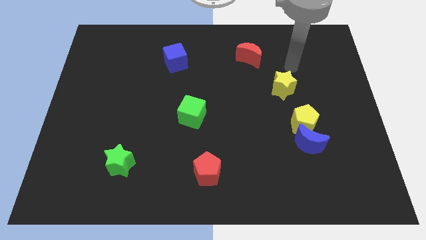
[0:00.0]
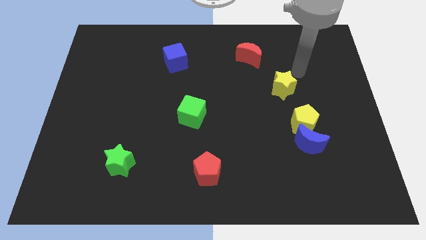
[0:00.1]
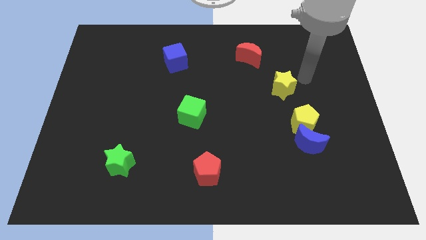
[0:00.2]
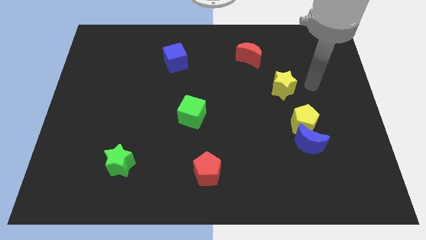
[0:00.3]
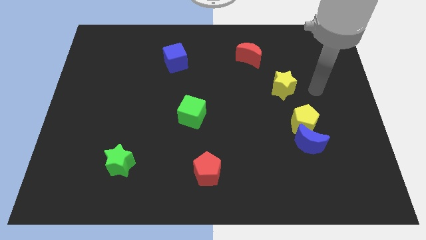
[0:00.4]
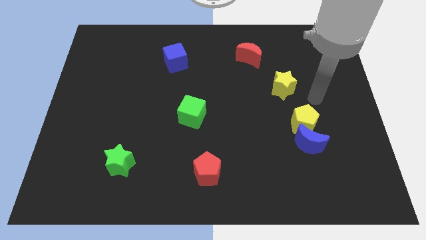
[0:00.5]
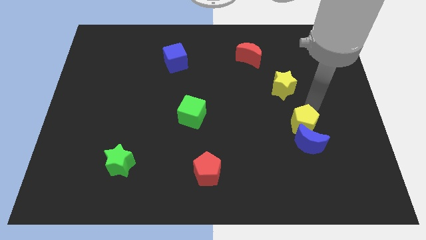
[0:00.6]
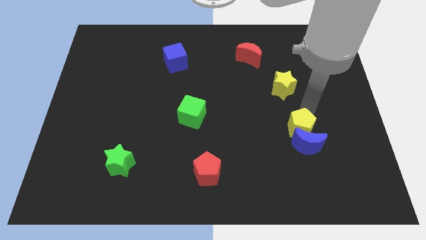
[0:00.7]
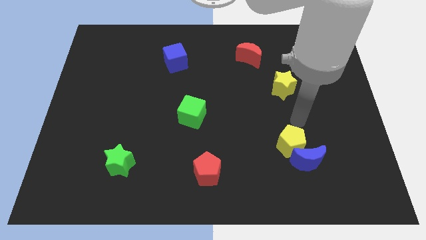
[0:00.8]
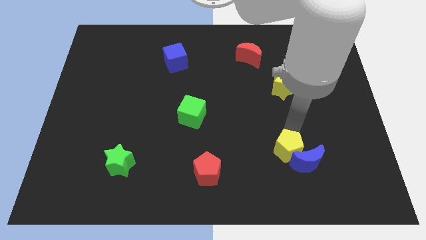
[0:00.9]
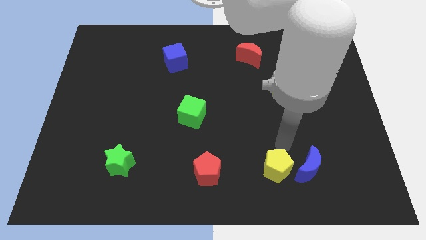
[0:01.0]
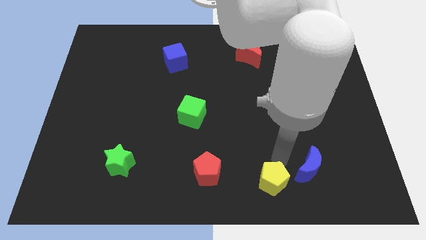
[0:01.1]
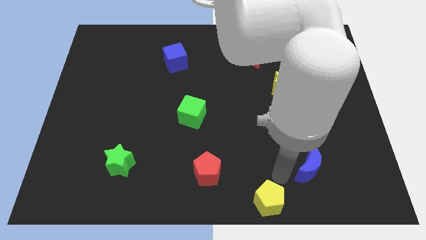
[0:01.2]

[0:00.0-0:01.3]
move the blue moon away from the yellow pentagon

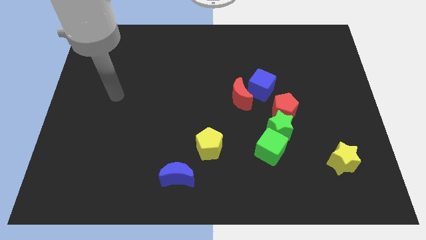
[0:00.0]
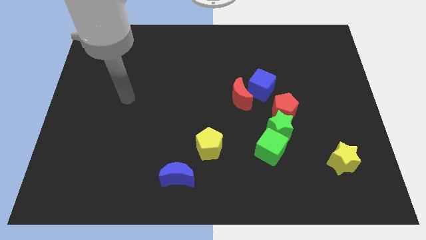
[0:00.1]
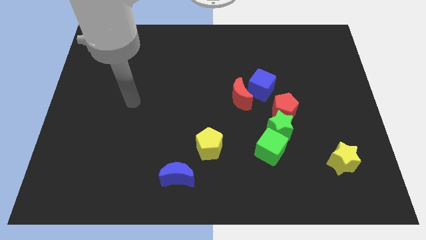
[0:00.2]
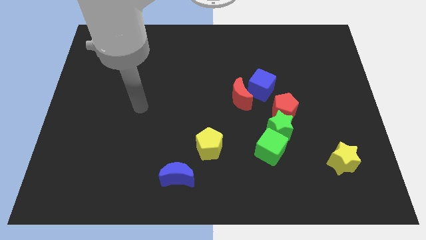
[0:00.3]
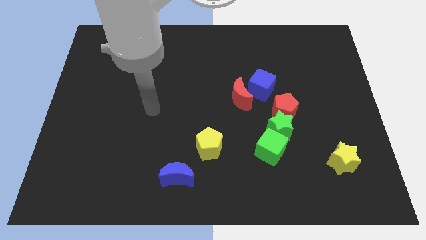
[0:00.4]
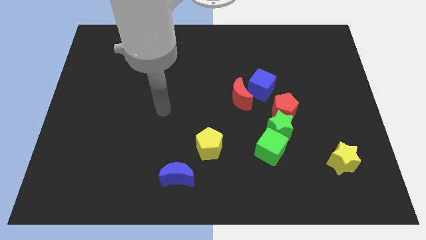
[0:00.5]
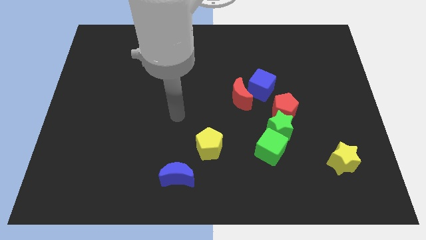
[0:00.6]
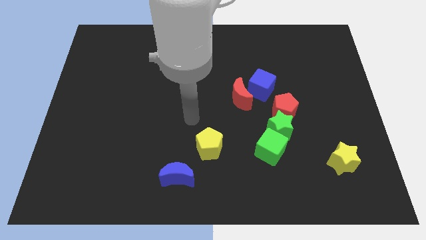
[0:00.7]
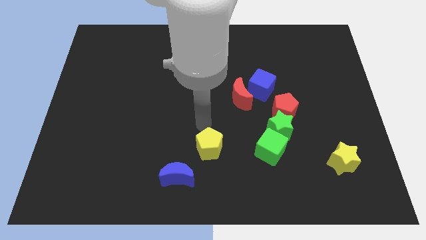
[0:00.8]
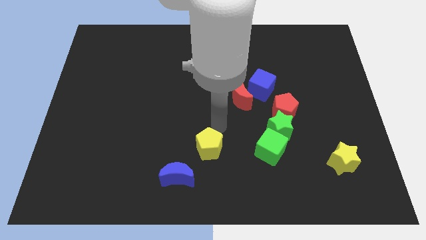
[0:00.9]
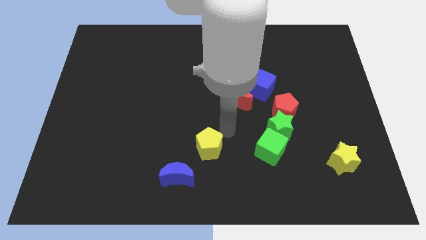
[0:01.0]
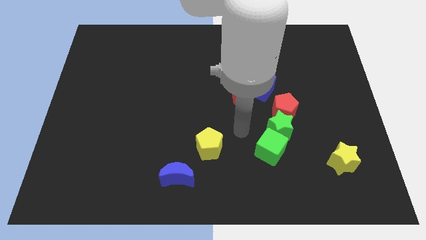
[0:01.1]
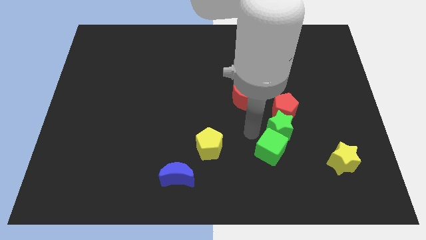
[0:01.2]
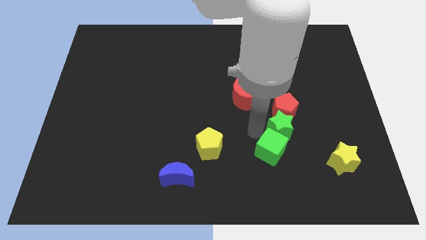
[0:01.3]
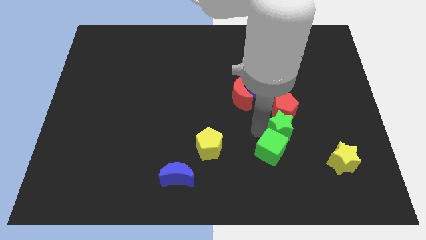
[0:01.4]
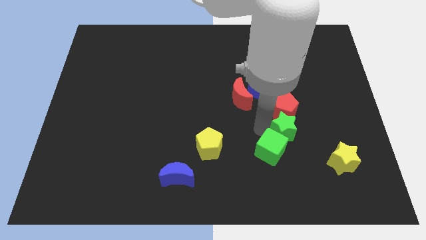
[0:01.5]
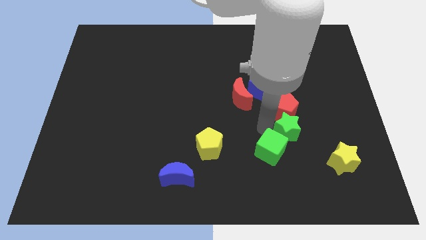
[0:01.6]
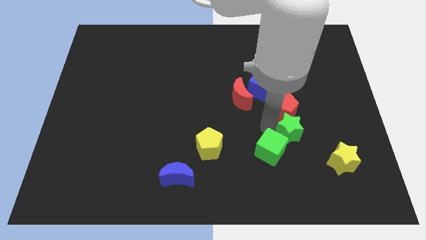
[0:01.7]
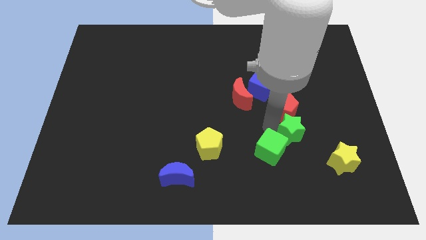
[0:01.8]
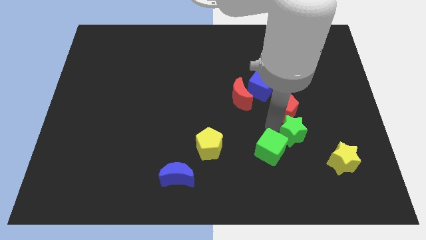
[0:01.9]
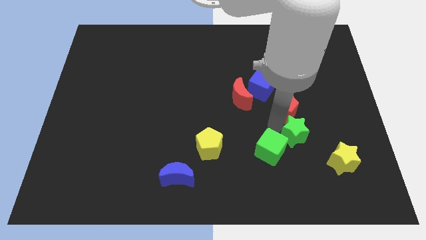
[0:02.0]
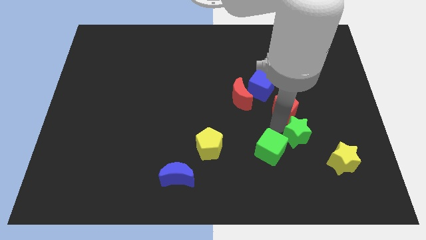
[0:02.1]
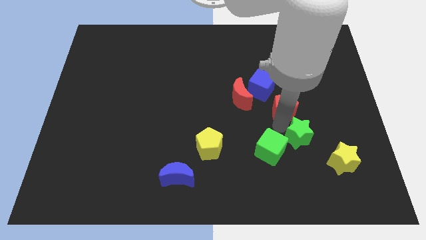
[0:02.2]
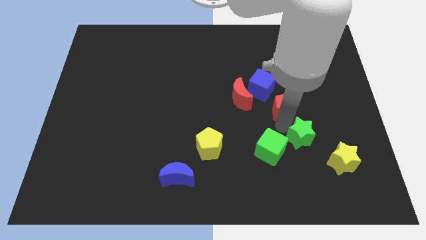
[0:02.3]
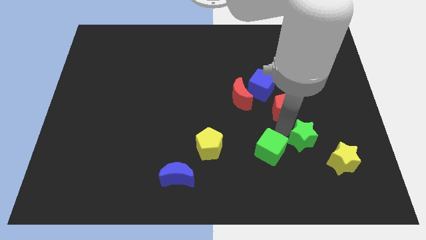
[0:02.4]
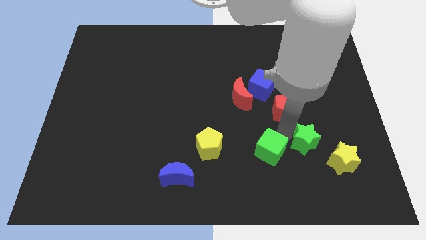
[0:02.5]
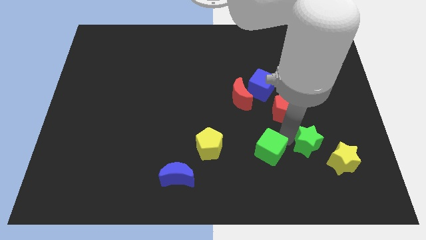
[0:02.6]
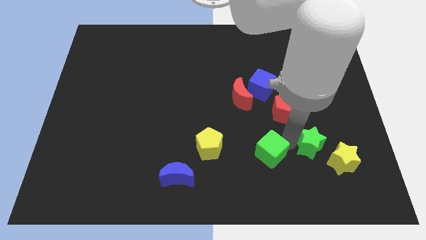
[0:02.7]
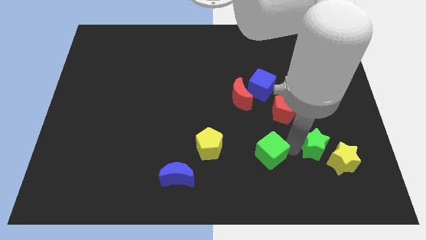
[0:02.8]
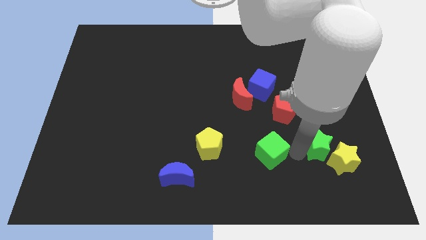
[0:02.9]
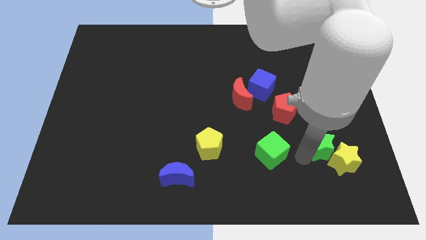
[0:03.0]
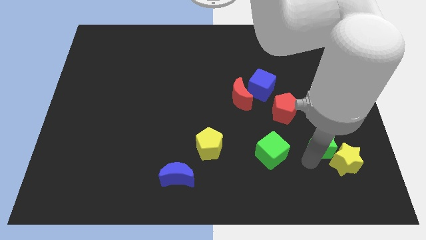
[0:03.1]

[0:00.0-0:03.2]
move the green star away from the red pentagon and green cube

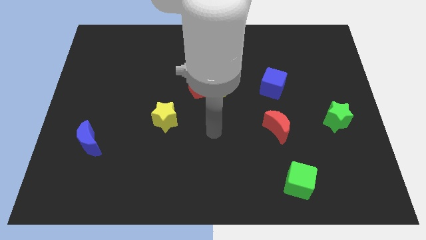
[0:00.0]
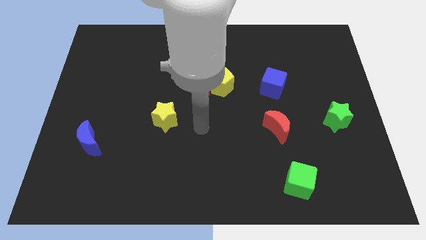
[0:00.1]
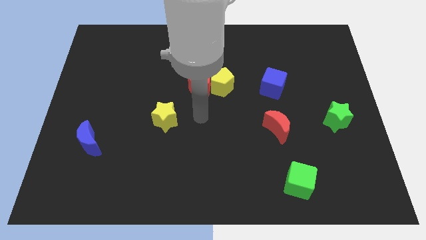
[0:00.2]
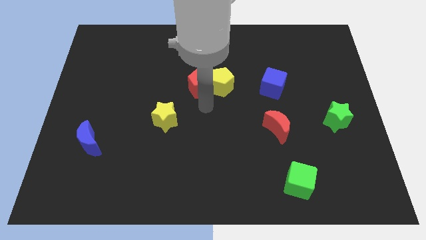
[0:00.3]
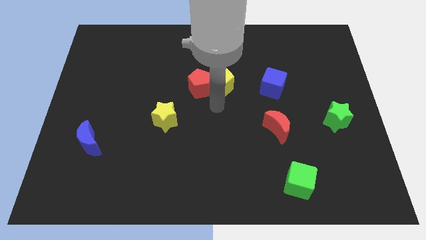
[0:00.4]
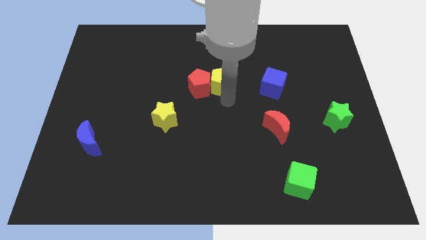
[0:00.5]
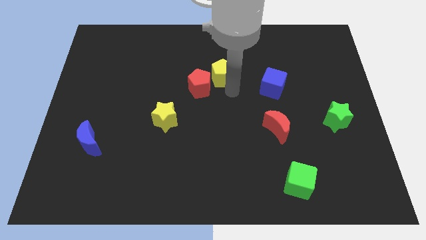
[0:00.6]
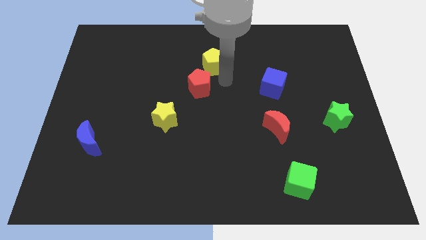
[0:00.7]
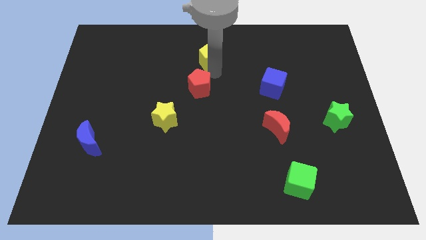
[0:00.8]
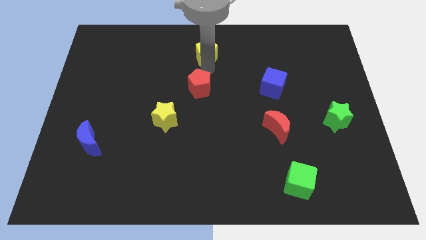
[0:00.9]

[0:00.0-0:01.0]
separate the red pentagon from the yellow pentagon

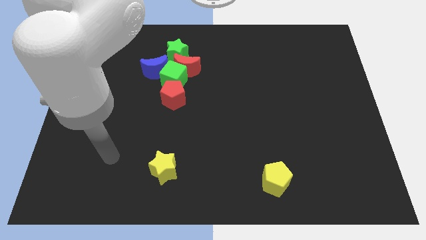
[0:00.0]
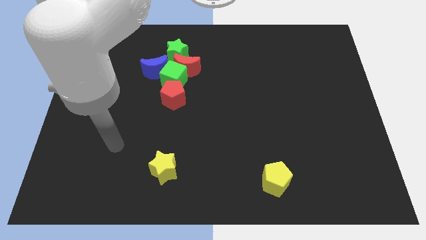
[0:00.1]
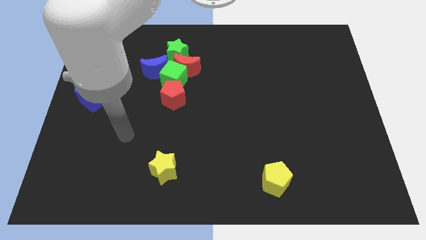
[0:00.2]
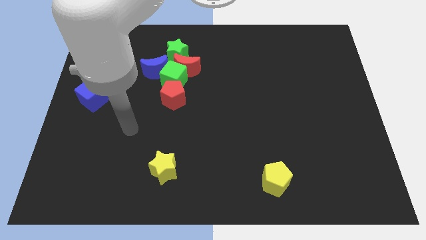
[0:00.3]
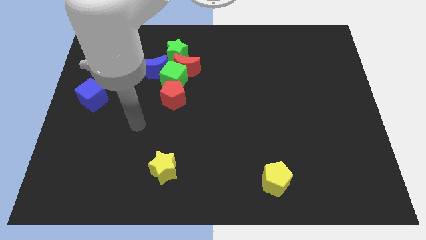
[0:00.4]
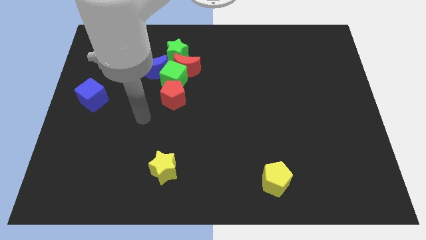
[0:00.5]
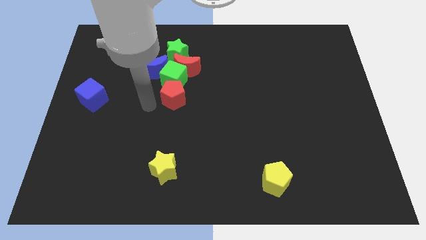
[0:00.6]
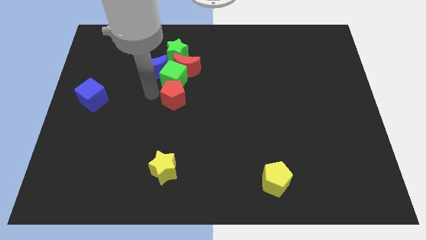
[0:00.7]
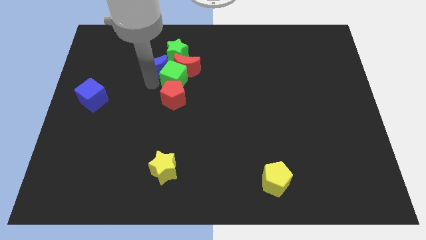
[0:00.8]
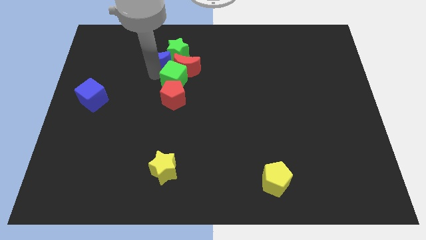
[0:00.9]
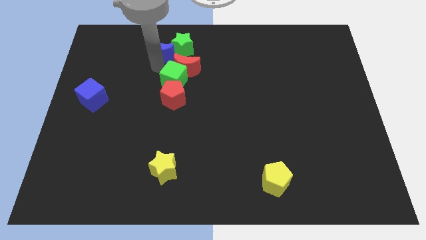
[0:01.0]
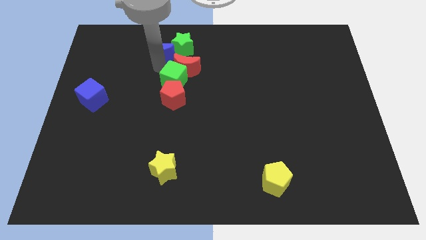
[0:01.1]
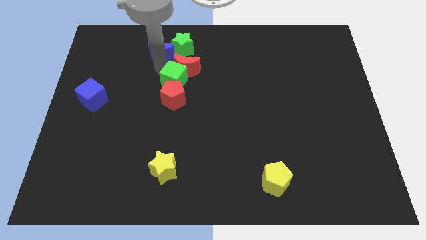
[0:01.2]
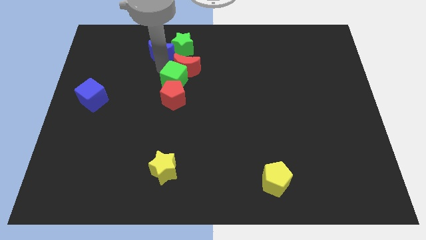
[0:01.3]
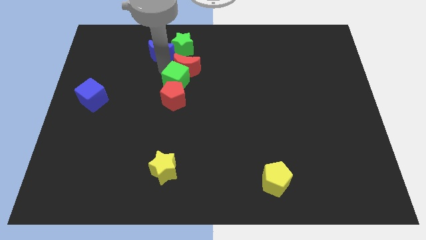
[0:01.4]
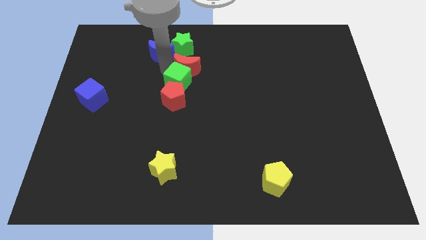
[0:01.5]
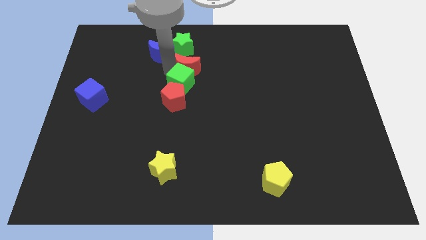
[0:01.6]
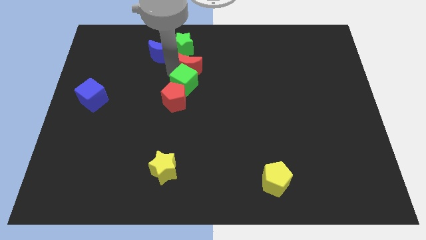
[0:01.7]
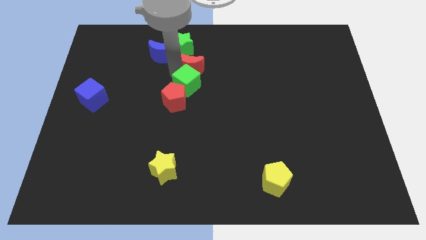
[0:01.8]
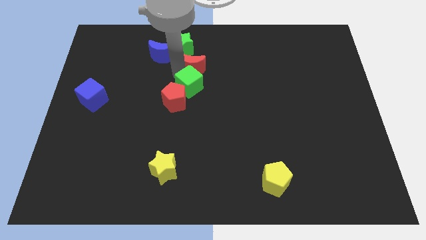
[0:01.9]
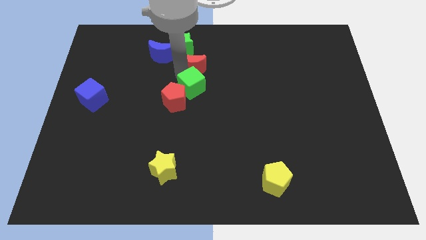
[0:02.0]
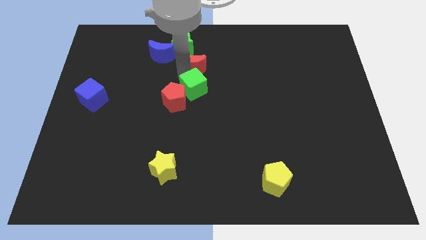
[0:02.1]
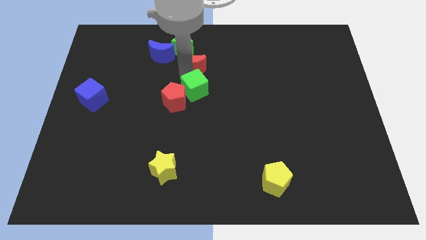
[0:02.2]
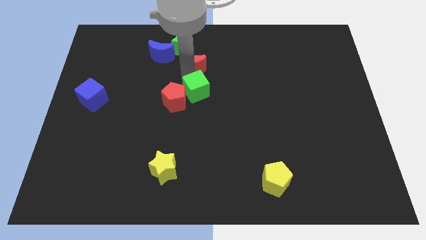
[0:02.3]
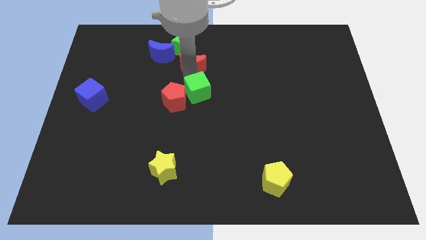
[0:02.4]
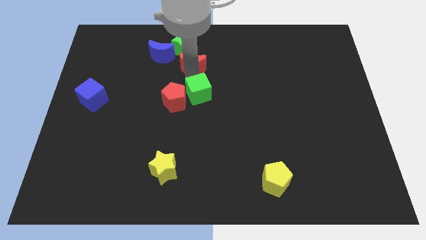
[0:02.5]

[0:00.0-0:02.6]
separate the green cube from the clump

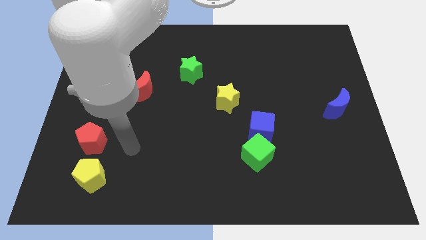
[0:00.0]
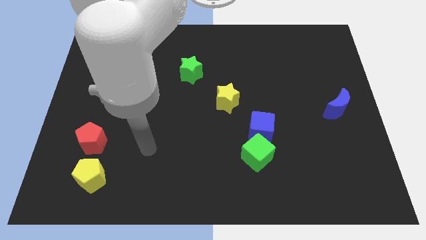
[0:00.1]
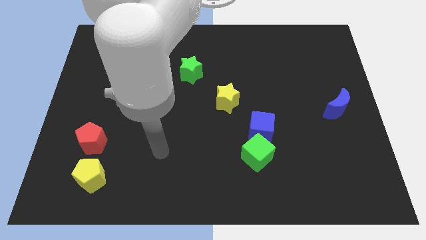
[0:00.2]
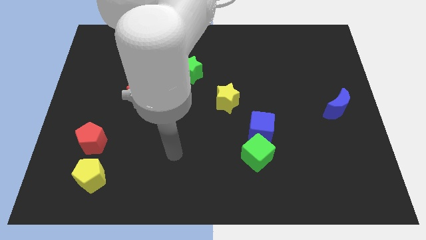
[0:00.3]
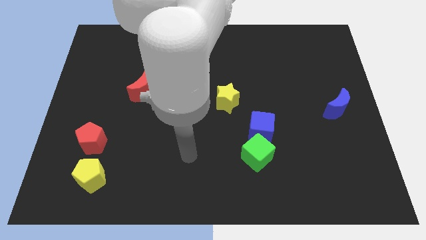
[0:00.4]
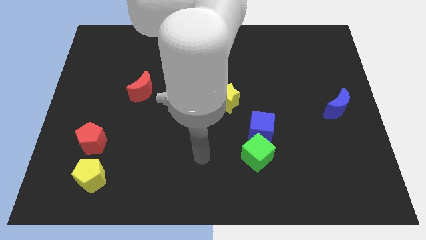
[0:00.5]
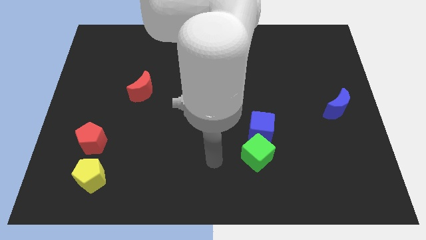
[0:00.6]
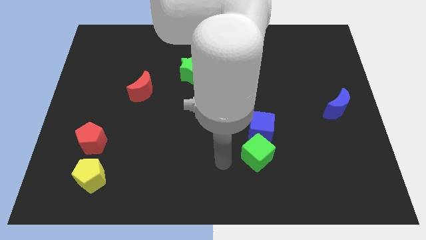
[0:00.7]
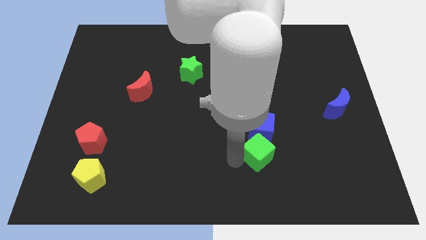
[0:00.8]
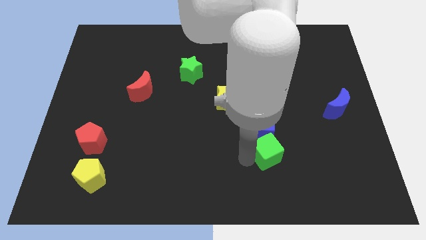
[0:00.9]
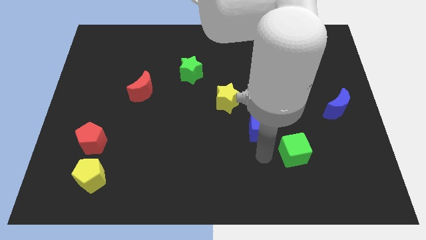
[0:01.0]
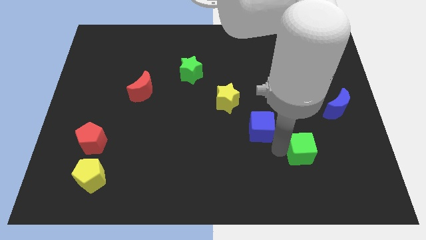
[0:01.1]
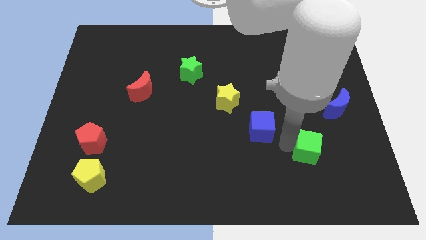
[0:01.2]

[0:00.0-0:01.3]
separate the blue cube from the green cube
